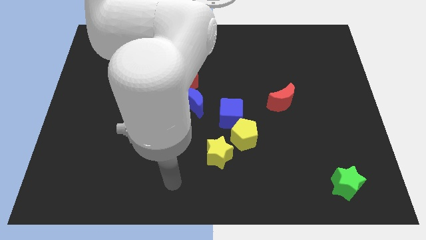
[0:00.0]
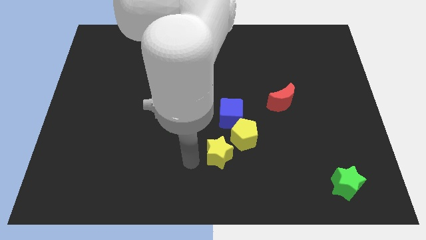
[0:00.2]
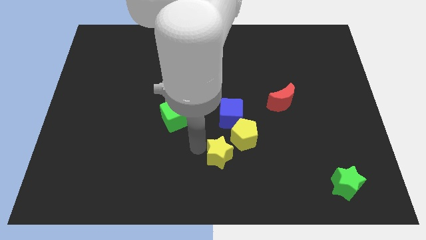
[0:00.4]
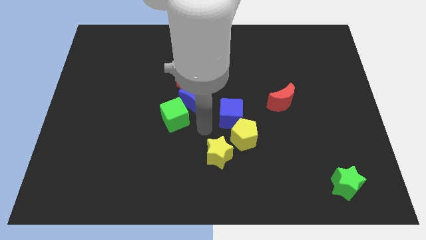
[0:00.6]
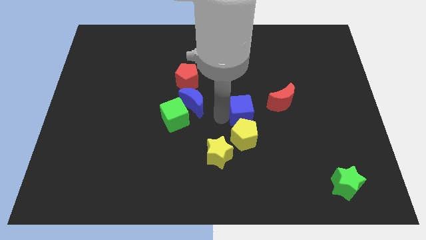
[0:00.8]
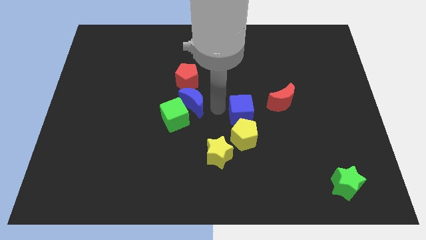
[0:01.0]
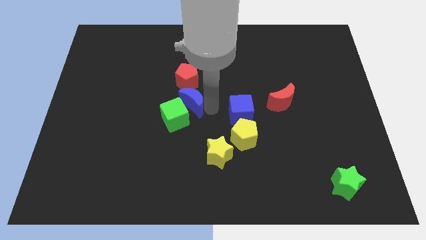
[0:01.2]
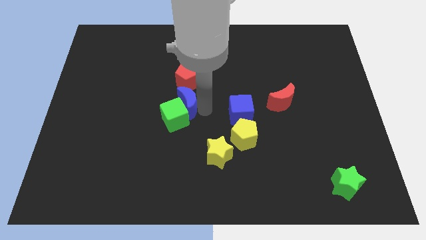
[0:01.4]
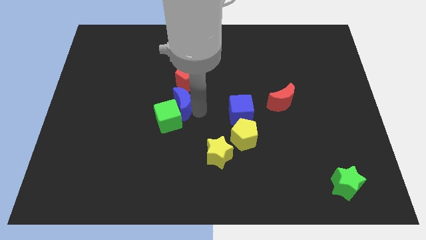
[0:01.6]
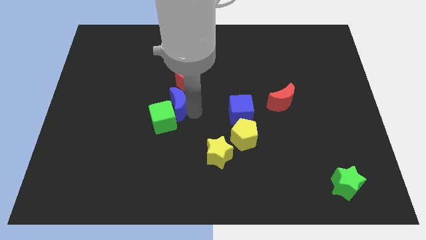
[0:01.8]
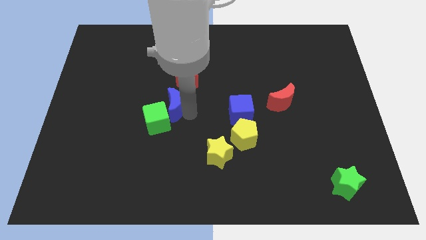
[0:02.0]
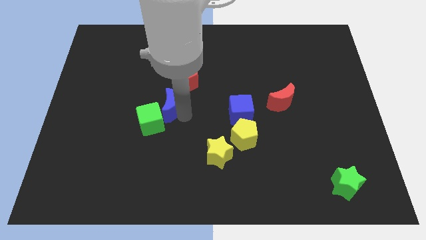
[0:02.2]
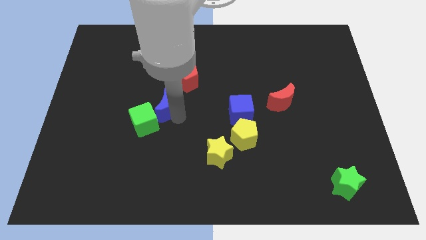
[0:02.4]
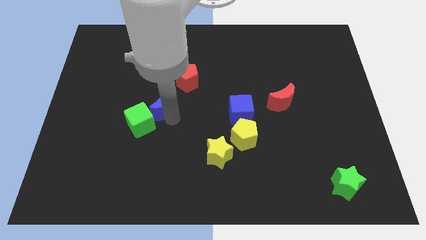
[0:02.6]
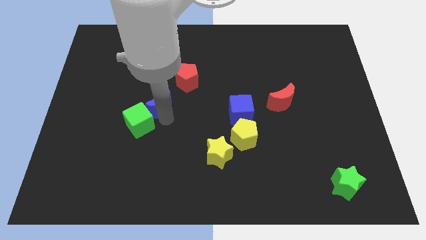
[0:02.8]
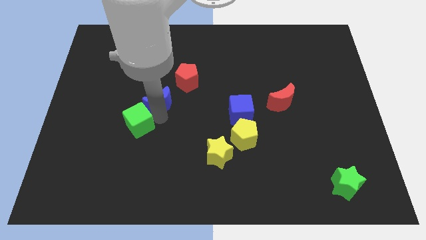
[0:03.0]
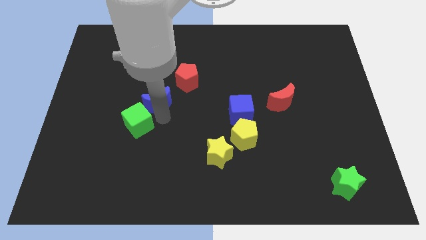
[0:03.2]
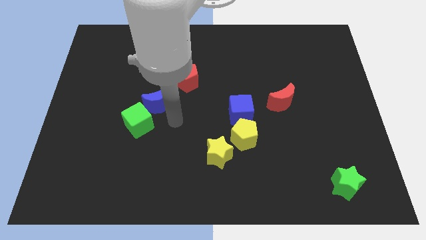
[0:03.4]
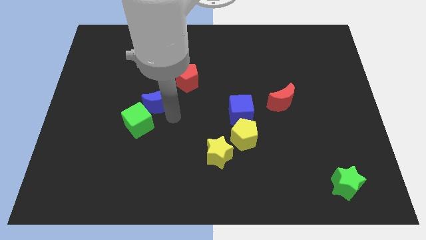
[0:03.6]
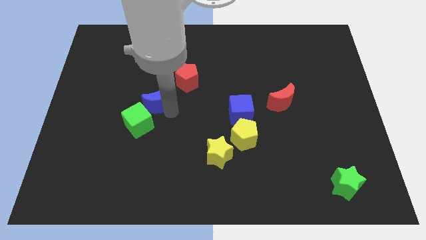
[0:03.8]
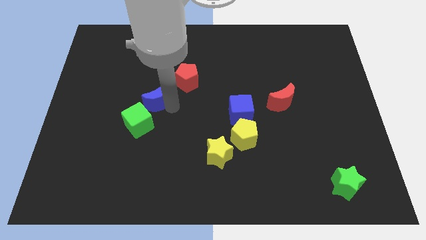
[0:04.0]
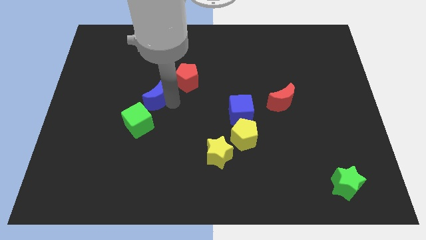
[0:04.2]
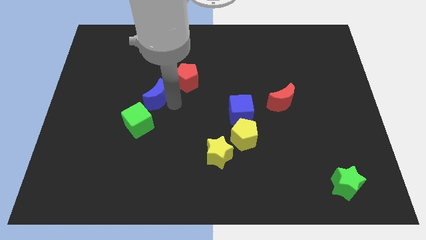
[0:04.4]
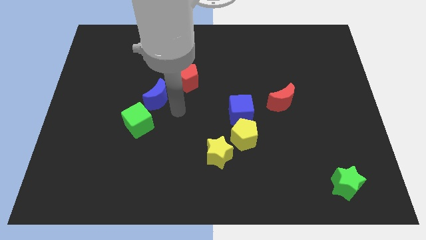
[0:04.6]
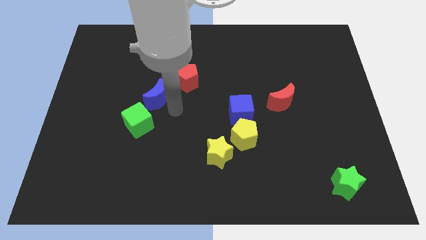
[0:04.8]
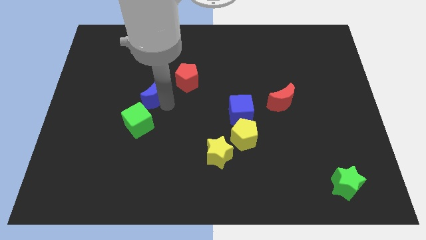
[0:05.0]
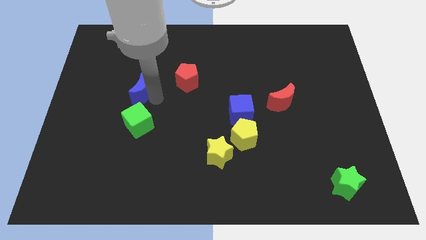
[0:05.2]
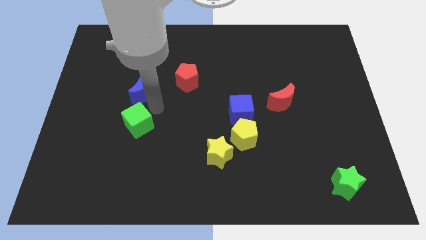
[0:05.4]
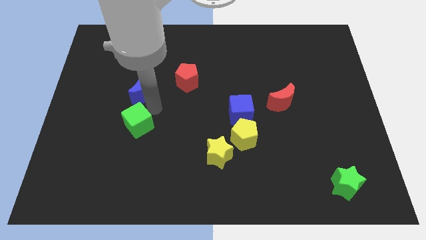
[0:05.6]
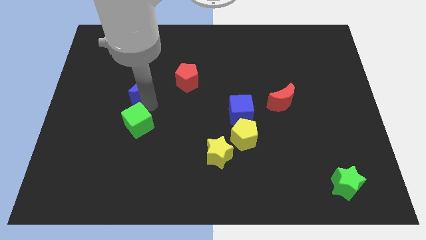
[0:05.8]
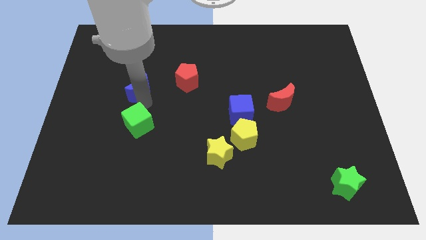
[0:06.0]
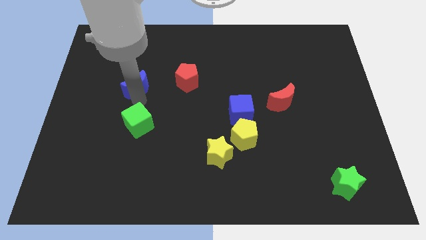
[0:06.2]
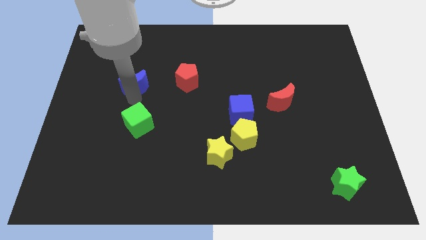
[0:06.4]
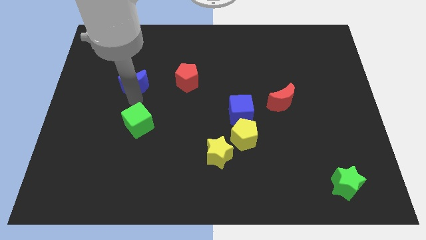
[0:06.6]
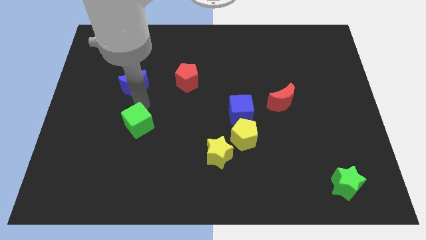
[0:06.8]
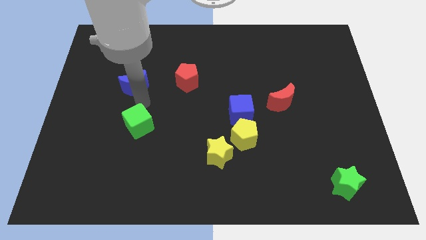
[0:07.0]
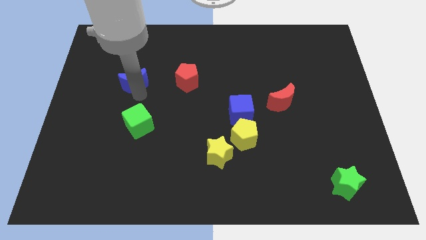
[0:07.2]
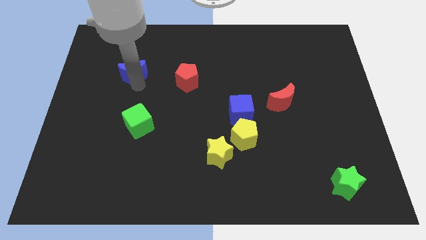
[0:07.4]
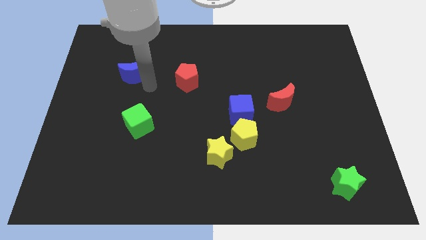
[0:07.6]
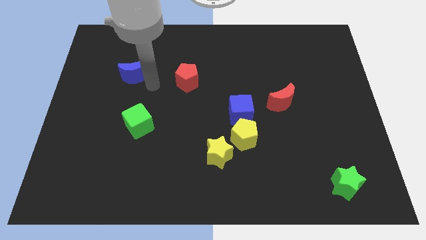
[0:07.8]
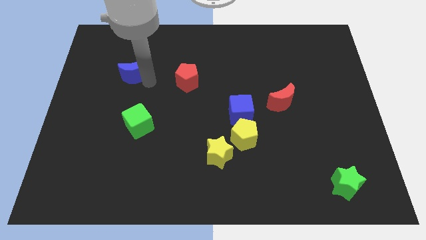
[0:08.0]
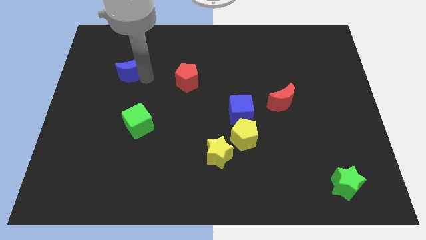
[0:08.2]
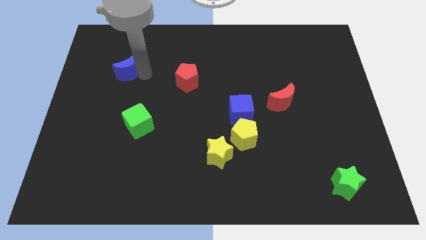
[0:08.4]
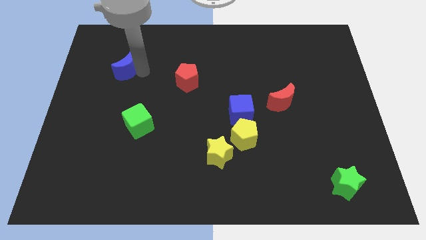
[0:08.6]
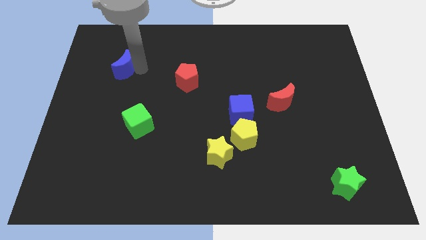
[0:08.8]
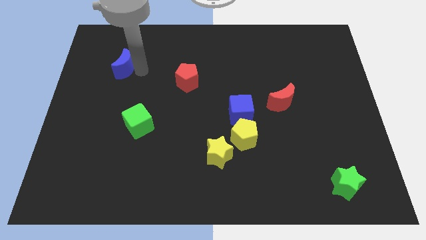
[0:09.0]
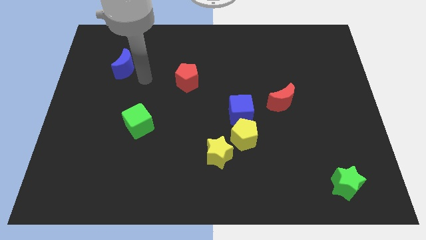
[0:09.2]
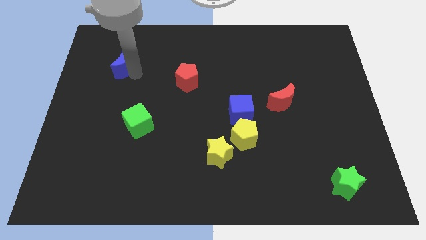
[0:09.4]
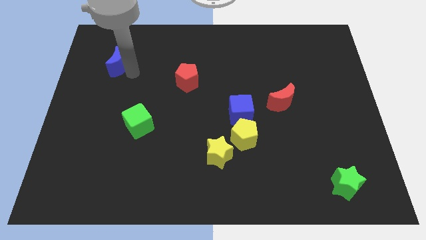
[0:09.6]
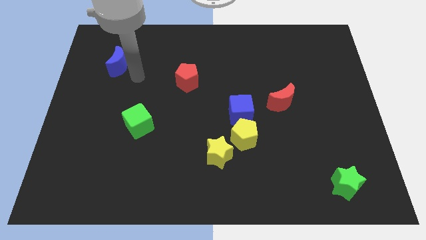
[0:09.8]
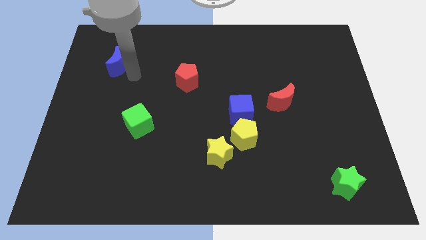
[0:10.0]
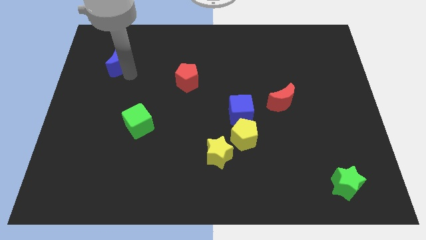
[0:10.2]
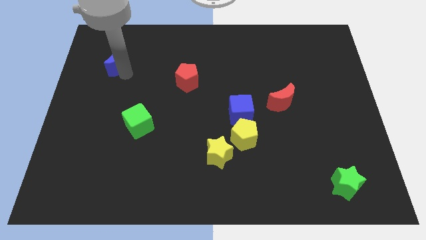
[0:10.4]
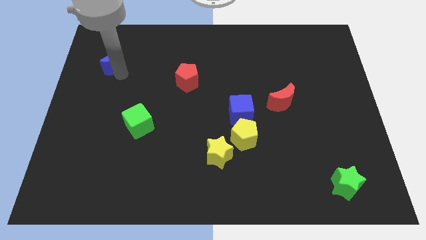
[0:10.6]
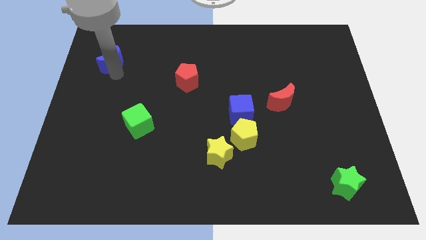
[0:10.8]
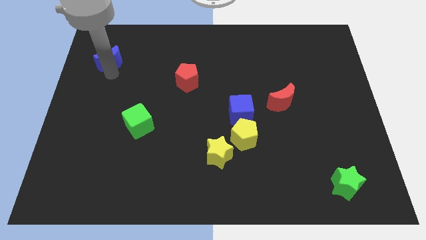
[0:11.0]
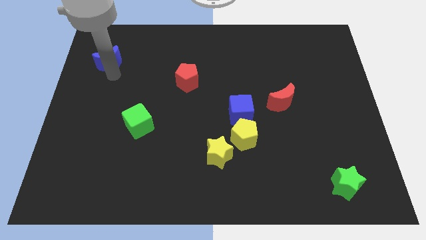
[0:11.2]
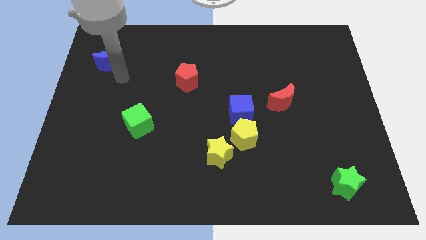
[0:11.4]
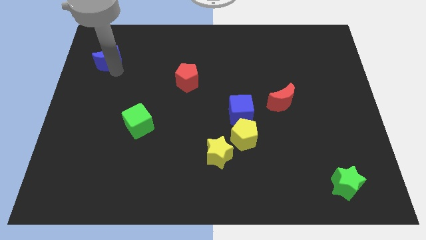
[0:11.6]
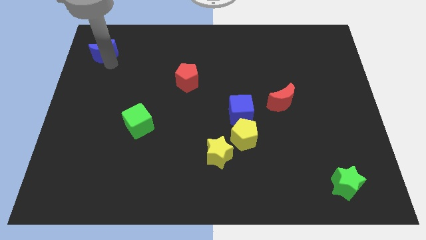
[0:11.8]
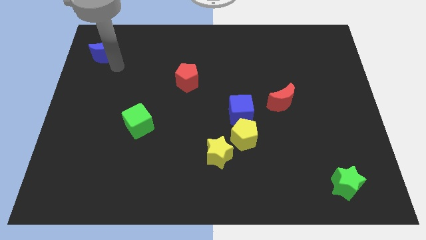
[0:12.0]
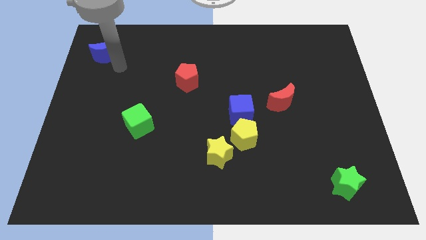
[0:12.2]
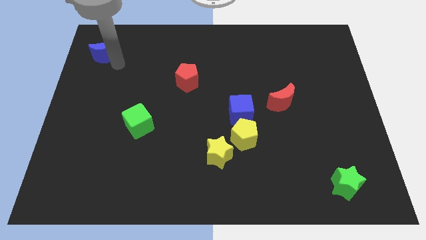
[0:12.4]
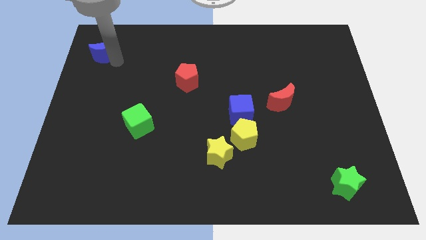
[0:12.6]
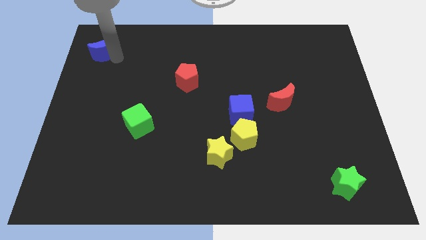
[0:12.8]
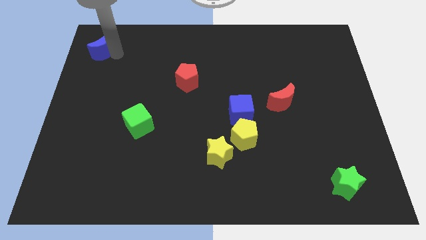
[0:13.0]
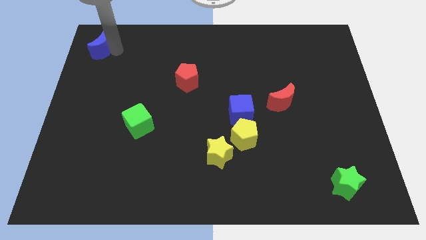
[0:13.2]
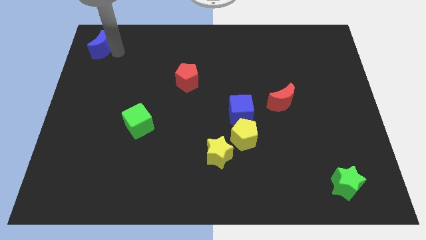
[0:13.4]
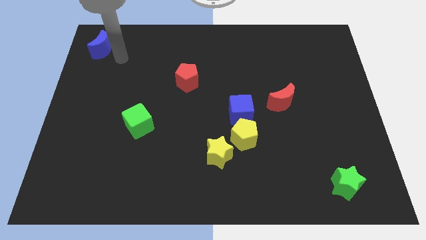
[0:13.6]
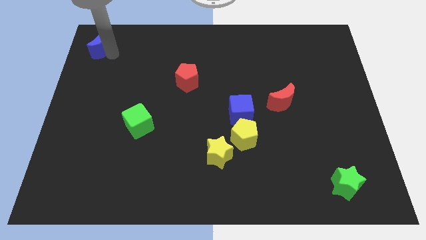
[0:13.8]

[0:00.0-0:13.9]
slide the blue moon to the top left
